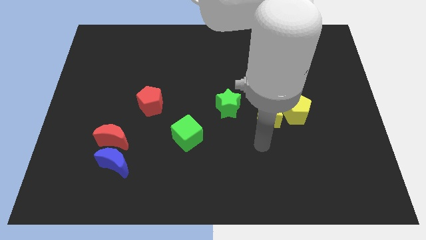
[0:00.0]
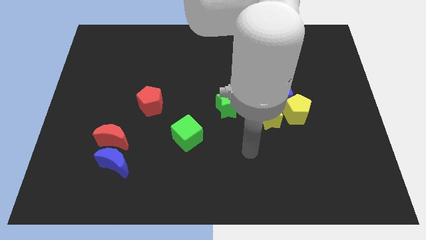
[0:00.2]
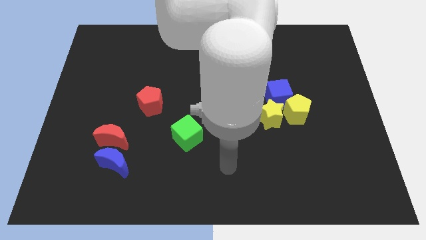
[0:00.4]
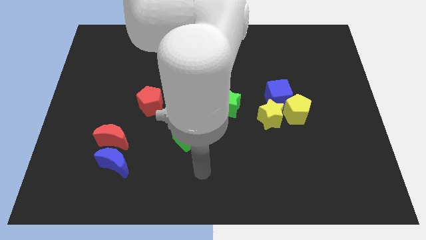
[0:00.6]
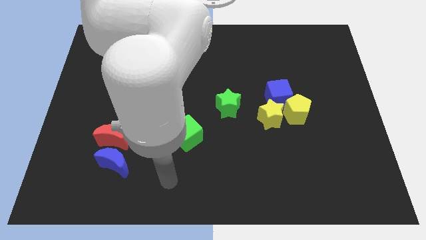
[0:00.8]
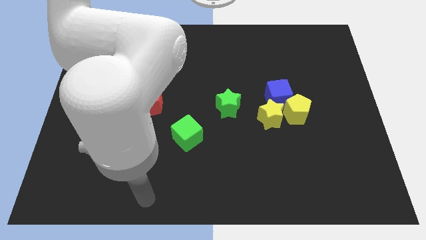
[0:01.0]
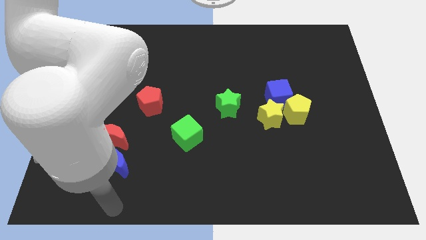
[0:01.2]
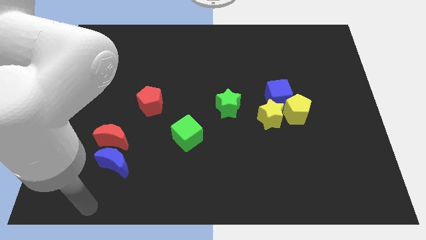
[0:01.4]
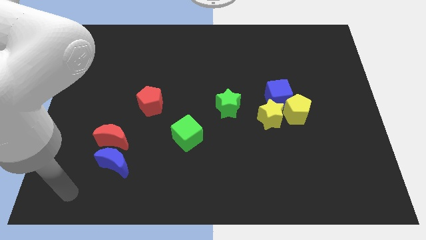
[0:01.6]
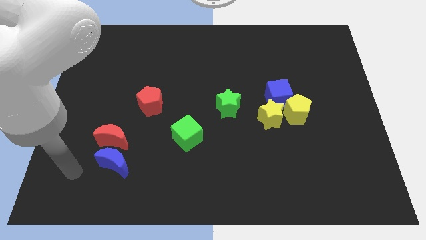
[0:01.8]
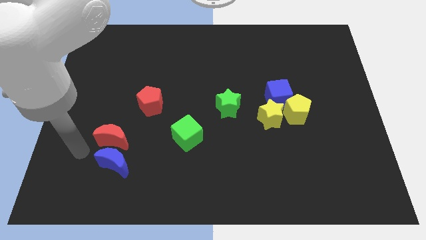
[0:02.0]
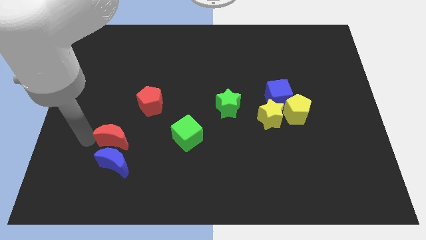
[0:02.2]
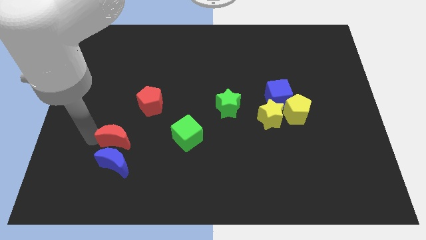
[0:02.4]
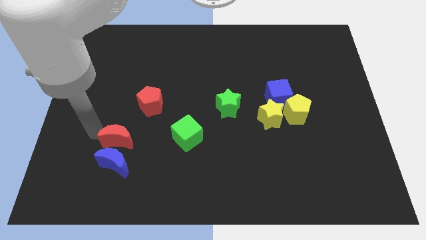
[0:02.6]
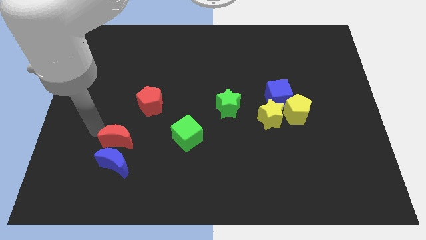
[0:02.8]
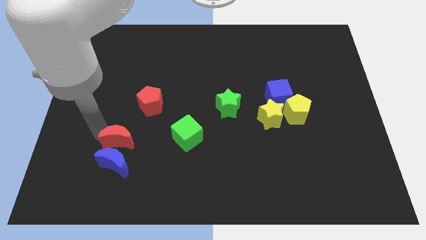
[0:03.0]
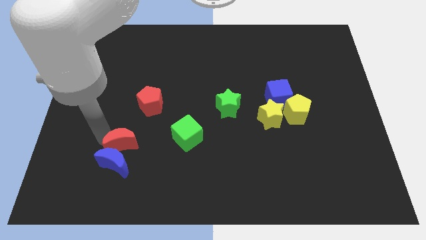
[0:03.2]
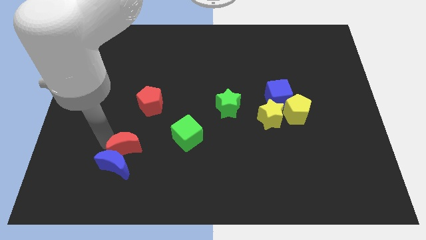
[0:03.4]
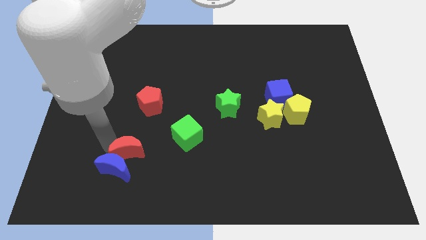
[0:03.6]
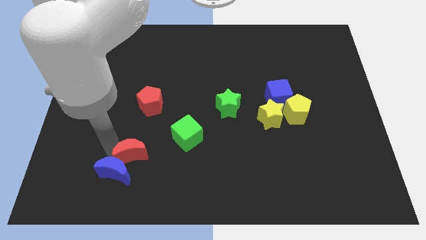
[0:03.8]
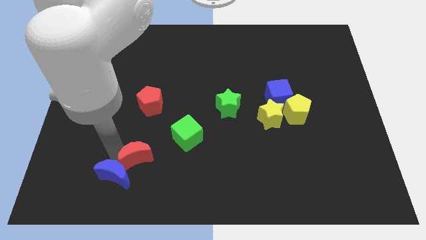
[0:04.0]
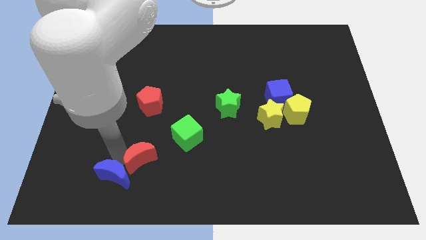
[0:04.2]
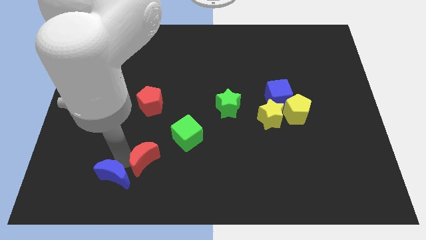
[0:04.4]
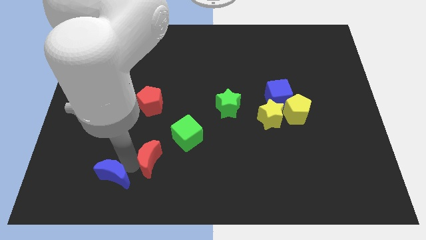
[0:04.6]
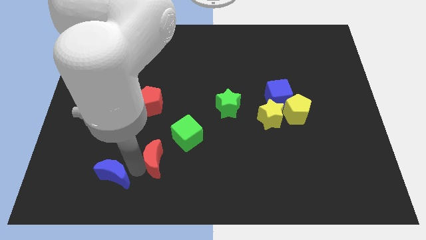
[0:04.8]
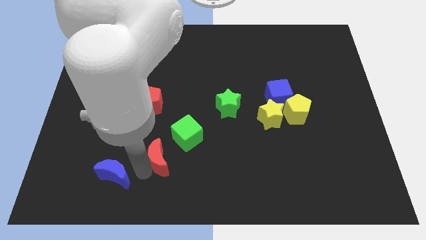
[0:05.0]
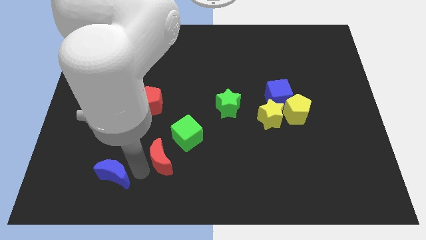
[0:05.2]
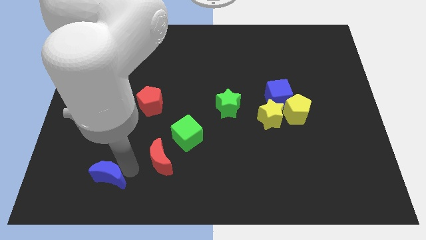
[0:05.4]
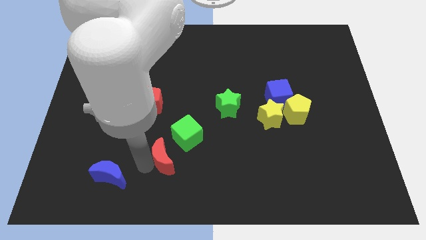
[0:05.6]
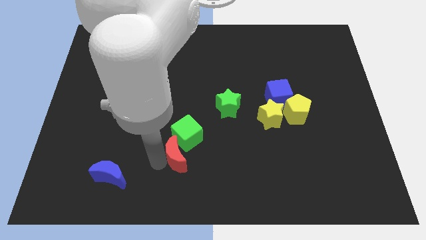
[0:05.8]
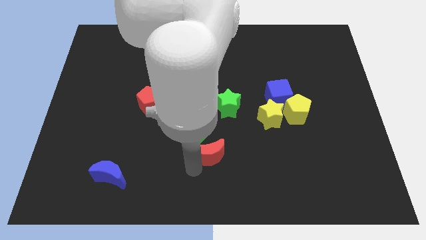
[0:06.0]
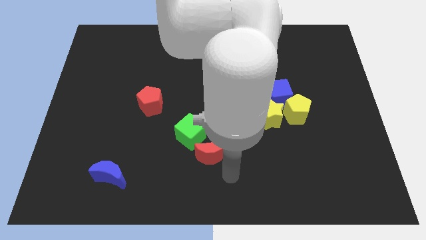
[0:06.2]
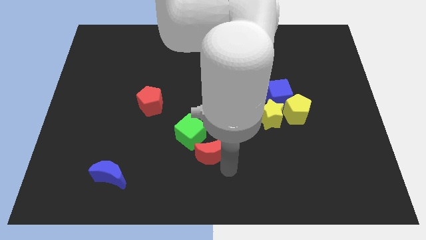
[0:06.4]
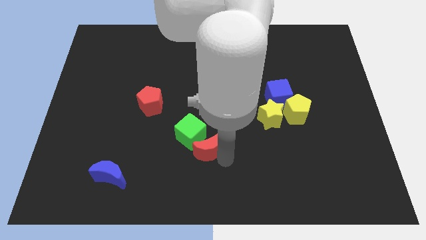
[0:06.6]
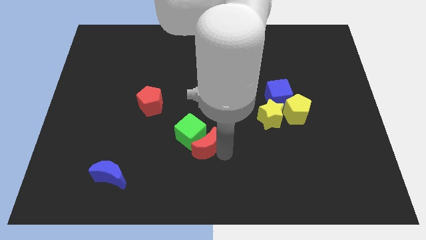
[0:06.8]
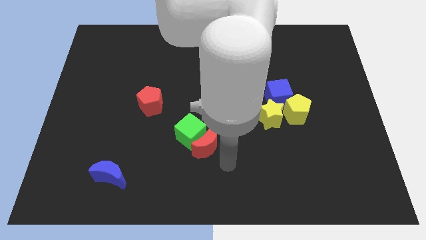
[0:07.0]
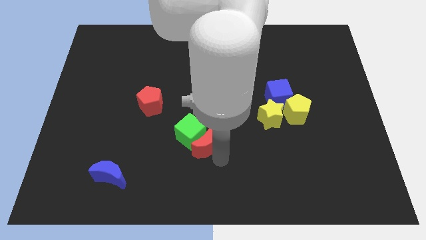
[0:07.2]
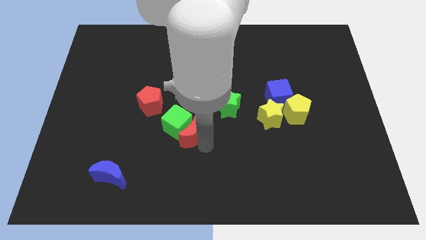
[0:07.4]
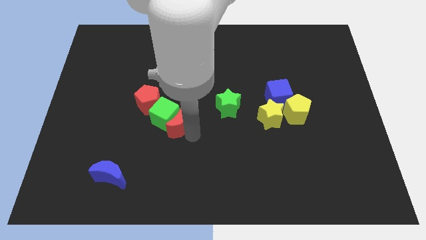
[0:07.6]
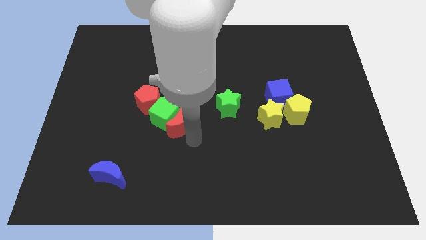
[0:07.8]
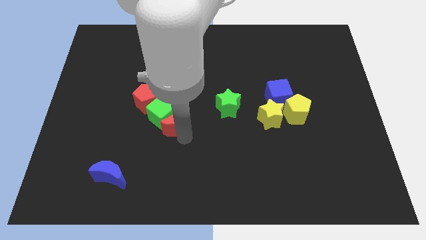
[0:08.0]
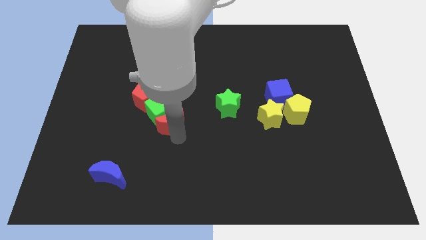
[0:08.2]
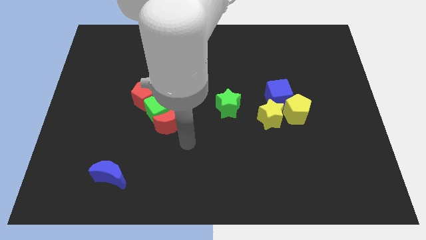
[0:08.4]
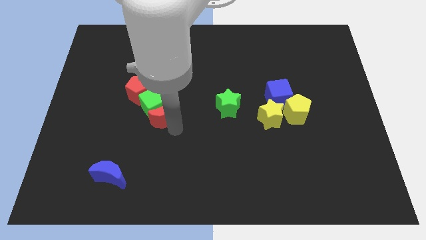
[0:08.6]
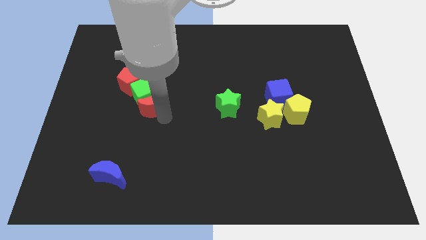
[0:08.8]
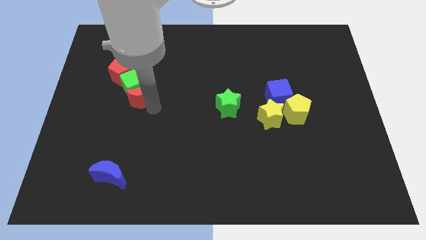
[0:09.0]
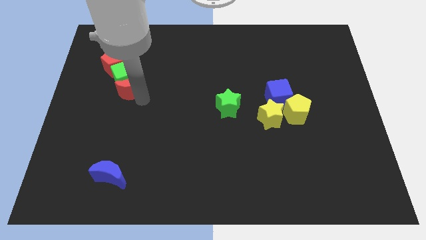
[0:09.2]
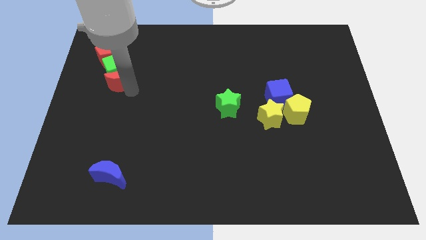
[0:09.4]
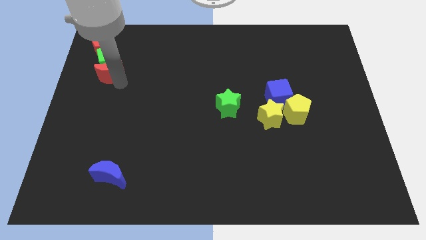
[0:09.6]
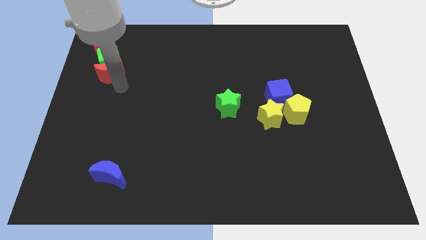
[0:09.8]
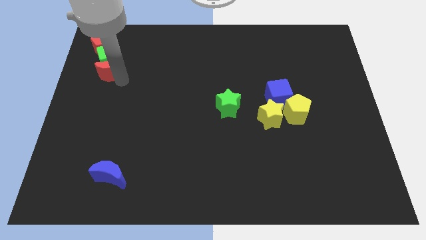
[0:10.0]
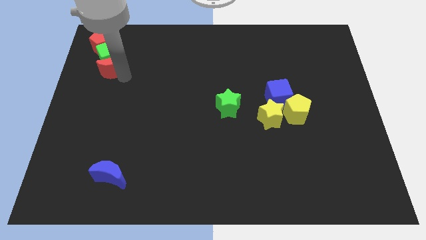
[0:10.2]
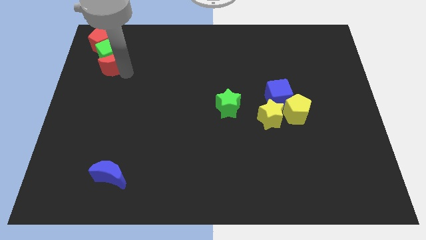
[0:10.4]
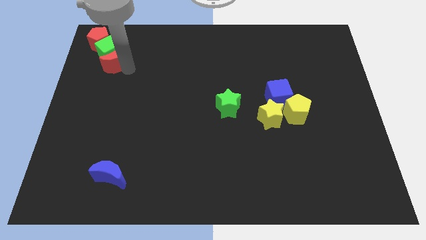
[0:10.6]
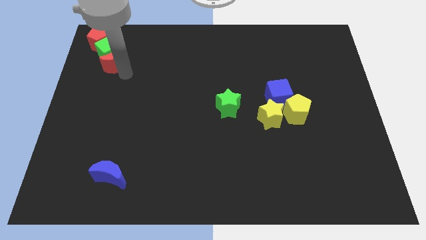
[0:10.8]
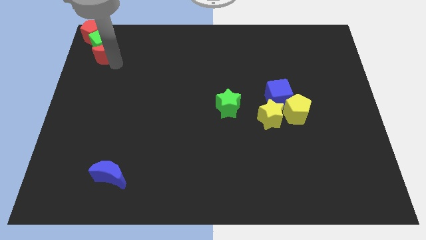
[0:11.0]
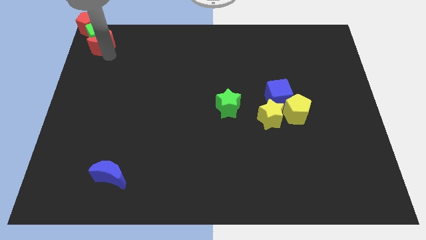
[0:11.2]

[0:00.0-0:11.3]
put the red moon to the top left of the board
